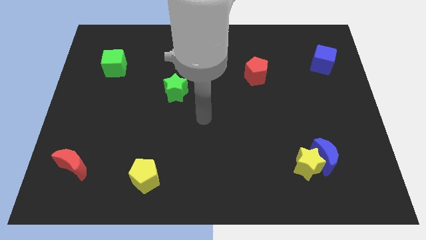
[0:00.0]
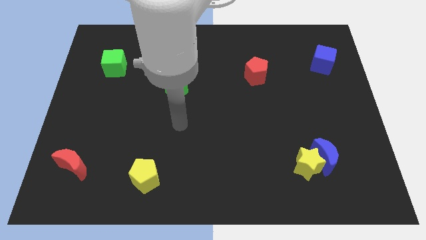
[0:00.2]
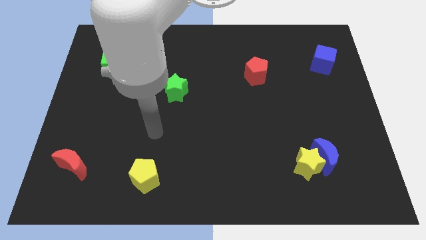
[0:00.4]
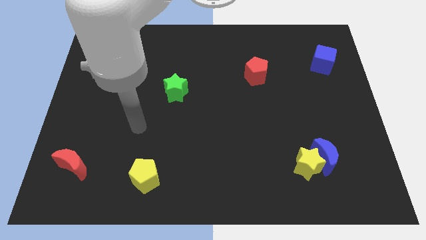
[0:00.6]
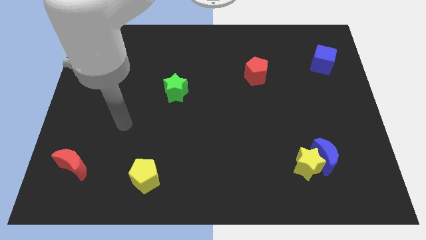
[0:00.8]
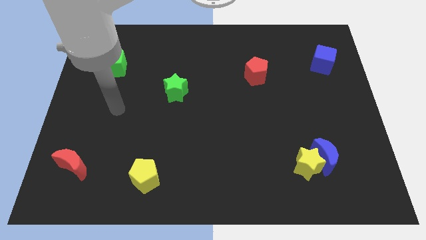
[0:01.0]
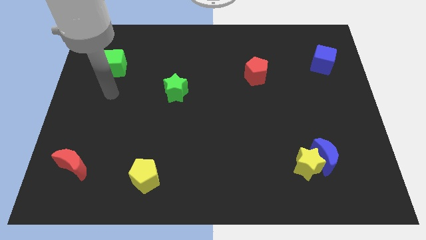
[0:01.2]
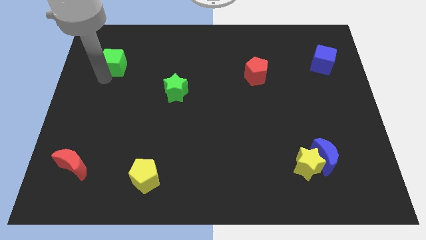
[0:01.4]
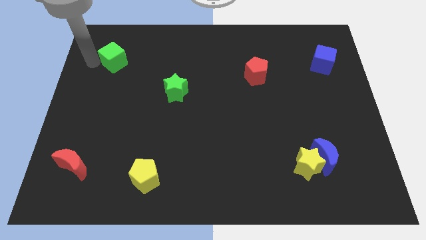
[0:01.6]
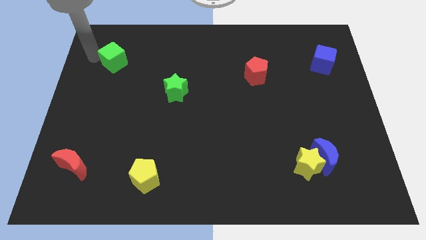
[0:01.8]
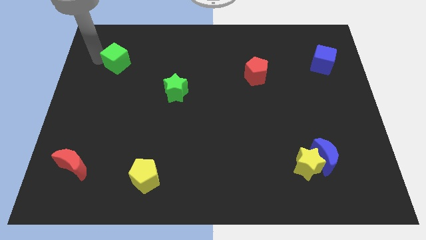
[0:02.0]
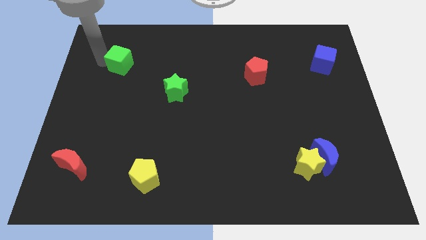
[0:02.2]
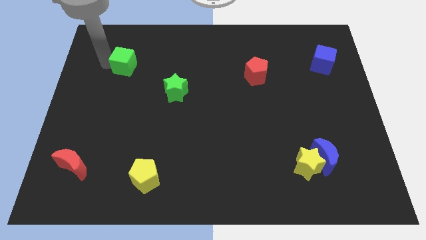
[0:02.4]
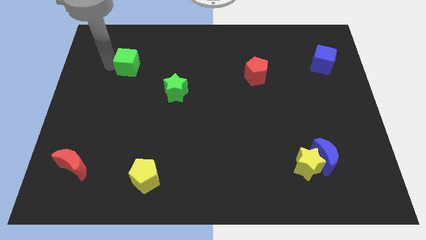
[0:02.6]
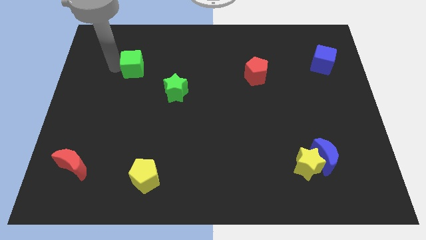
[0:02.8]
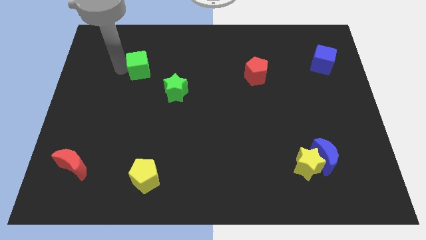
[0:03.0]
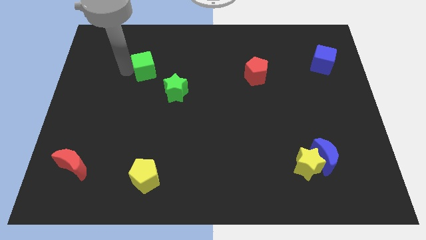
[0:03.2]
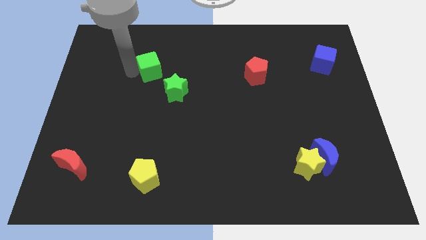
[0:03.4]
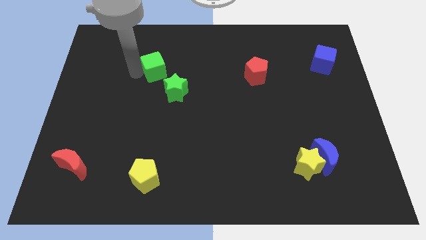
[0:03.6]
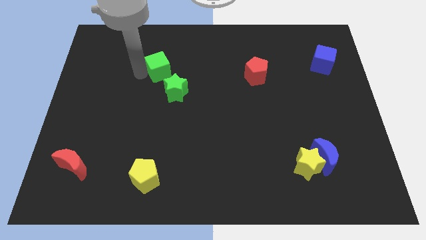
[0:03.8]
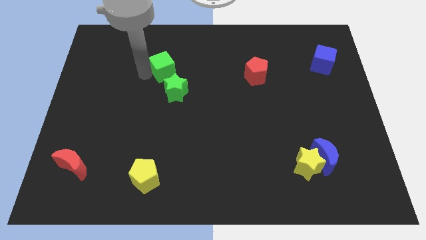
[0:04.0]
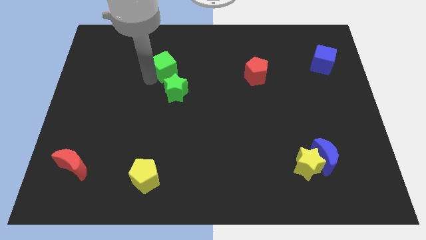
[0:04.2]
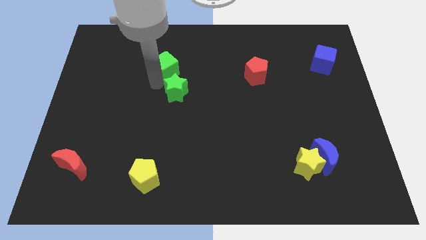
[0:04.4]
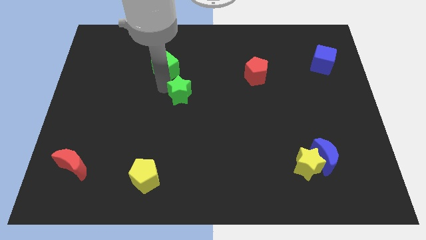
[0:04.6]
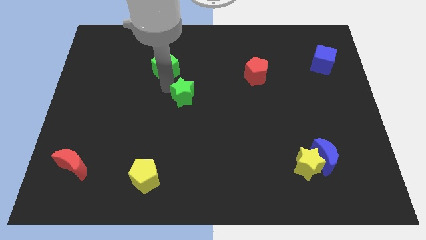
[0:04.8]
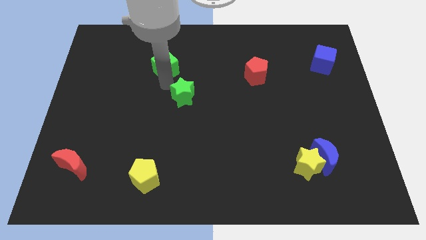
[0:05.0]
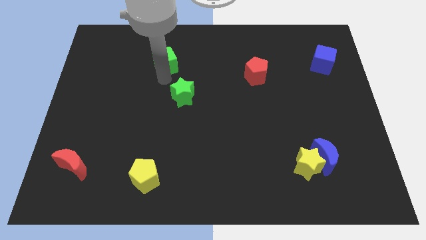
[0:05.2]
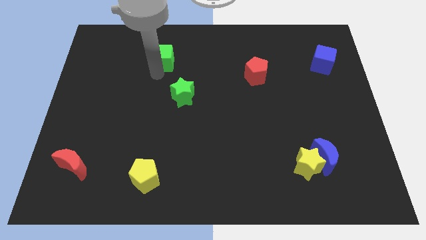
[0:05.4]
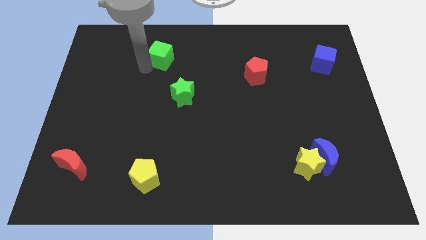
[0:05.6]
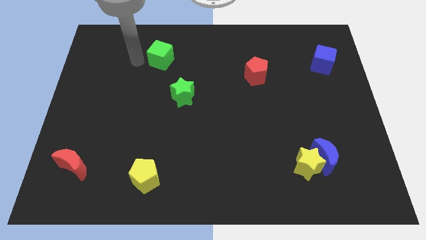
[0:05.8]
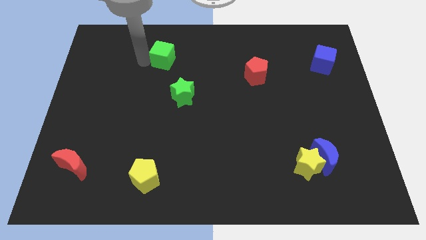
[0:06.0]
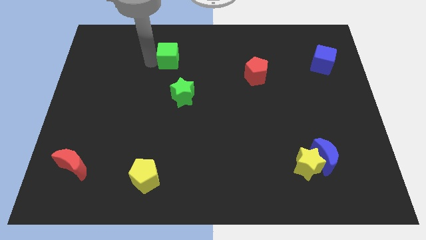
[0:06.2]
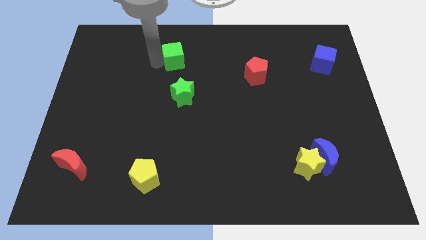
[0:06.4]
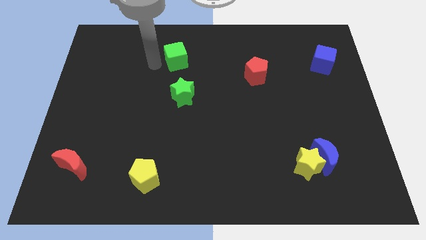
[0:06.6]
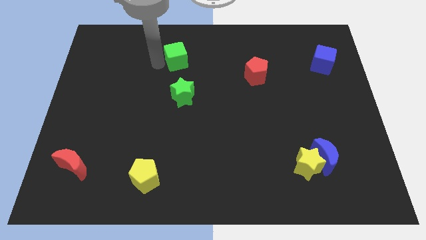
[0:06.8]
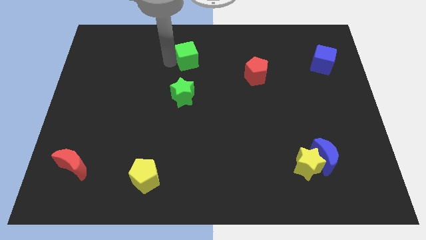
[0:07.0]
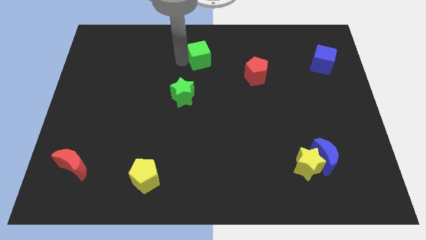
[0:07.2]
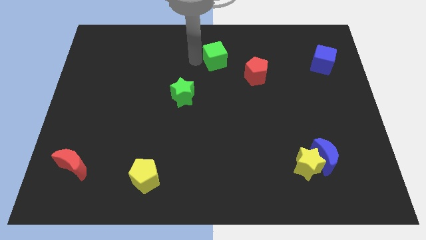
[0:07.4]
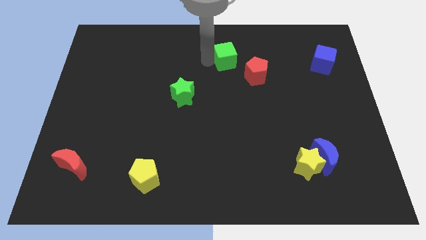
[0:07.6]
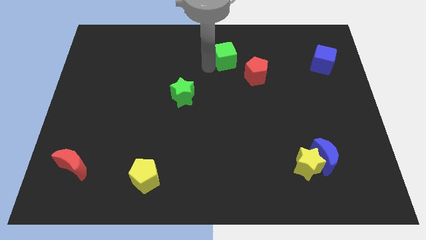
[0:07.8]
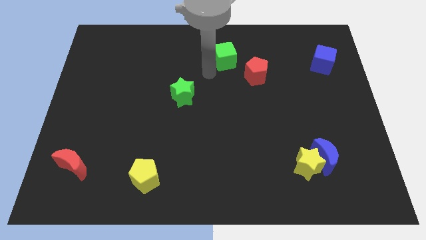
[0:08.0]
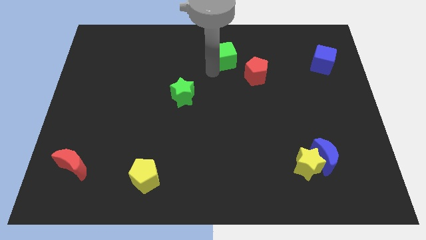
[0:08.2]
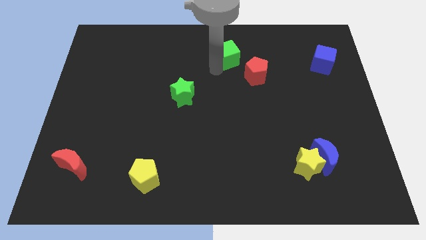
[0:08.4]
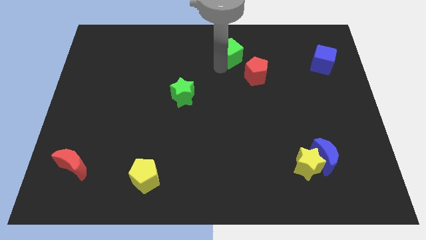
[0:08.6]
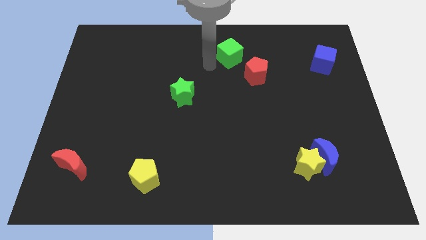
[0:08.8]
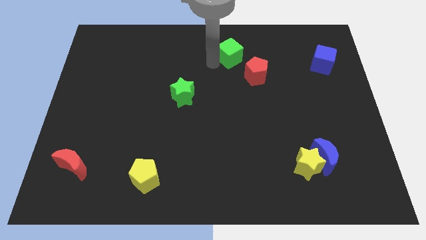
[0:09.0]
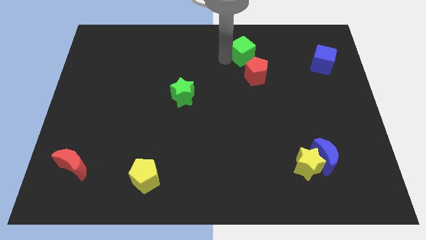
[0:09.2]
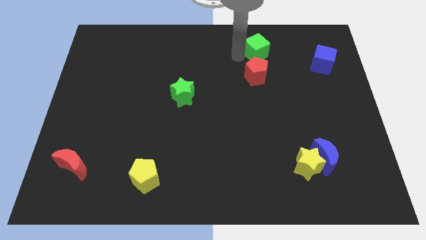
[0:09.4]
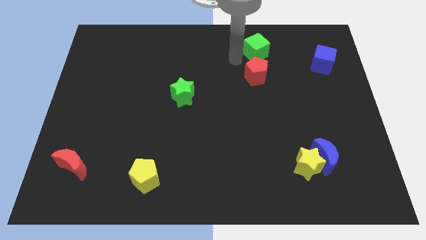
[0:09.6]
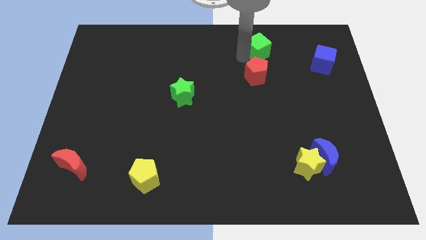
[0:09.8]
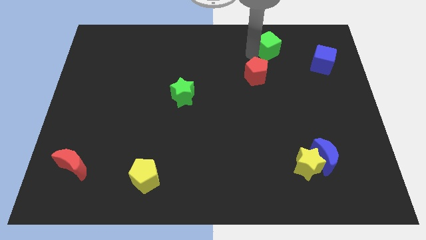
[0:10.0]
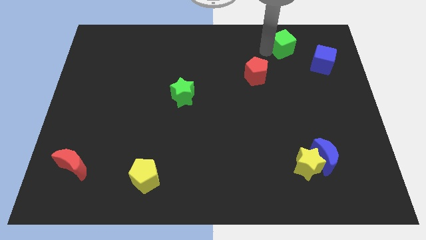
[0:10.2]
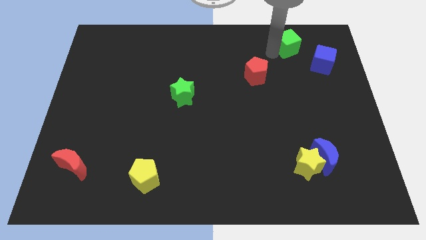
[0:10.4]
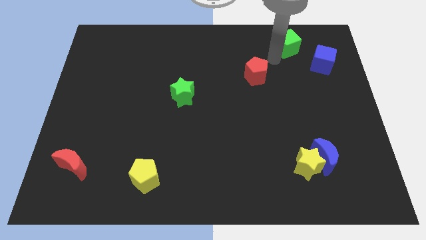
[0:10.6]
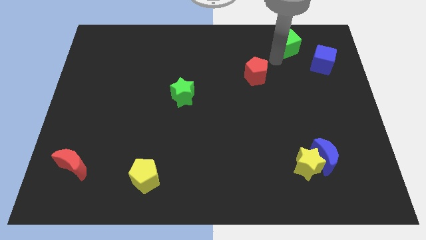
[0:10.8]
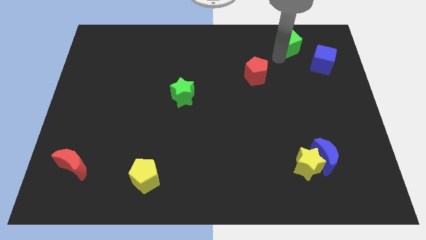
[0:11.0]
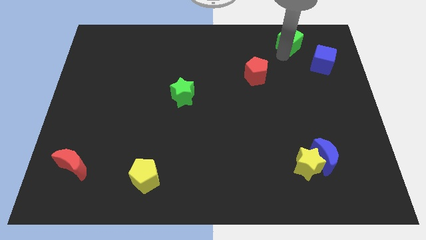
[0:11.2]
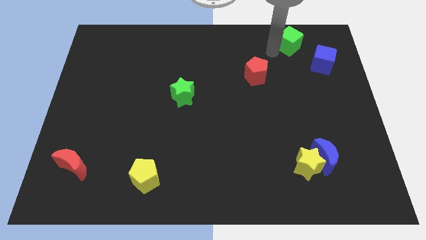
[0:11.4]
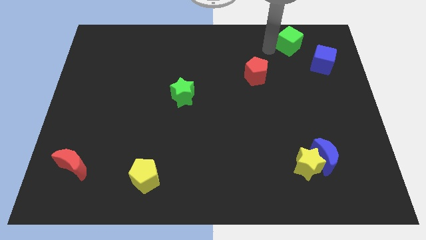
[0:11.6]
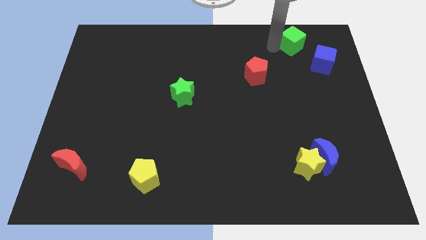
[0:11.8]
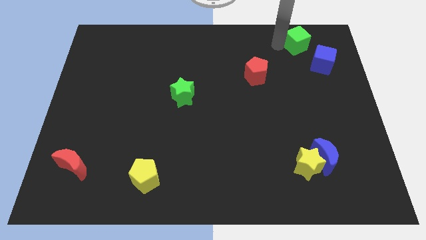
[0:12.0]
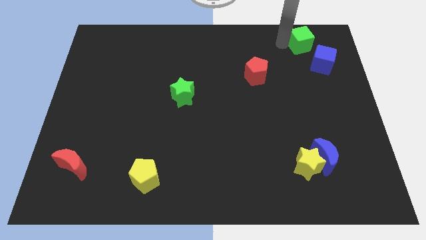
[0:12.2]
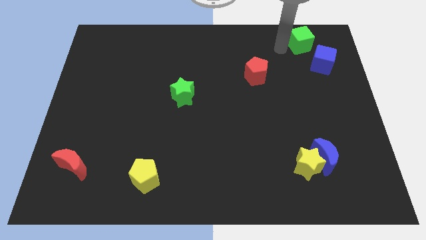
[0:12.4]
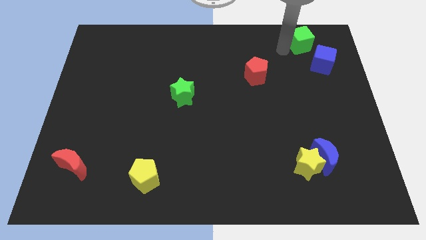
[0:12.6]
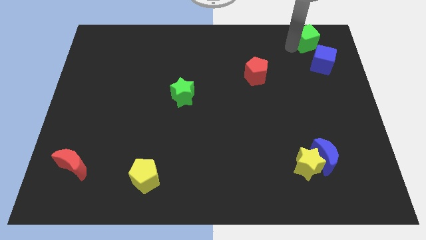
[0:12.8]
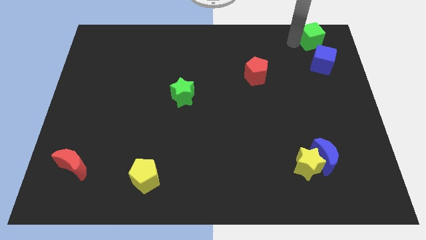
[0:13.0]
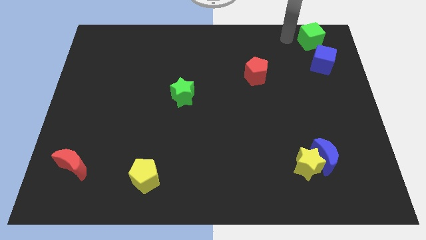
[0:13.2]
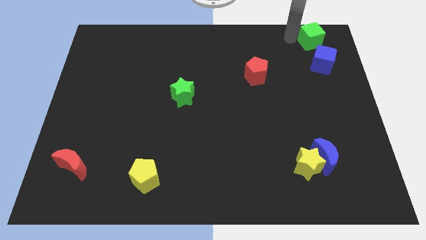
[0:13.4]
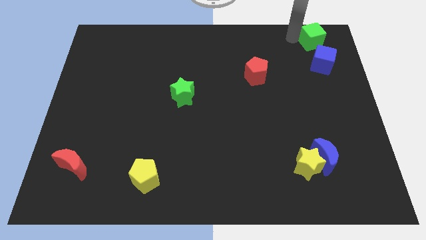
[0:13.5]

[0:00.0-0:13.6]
put the green cube to the top right
